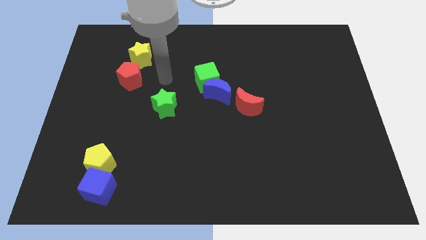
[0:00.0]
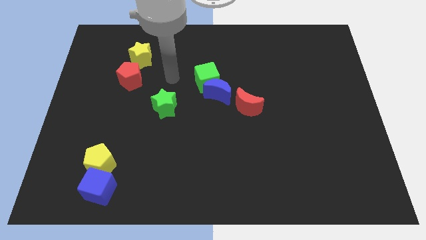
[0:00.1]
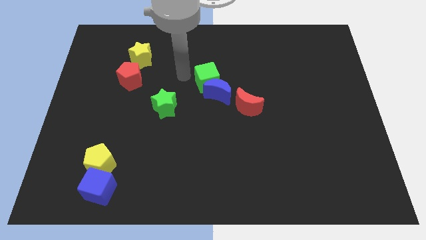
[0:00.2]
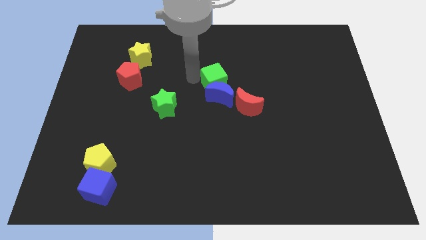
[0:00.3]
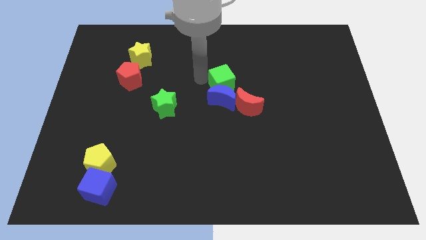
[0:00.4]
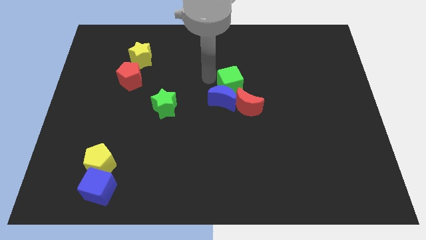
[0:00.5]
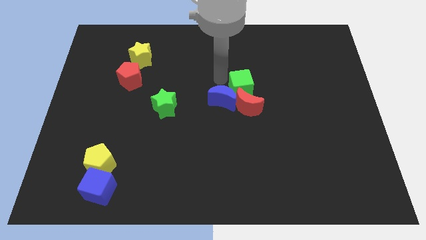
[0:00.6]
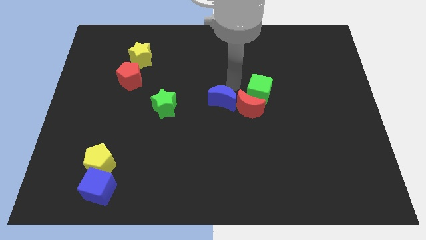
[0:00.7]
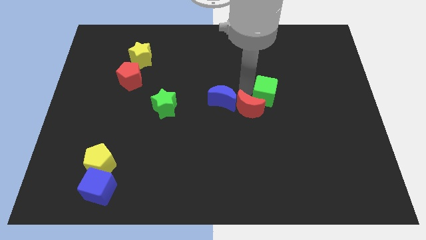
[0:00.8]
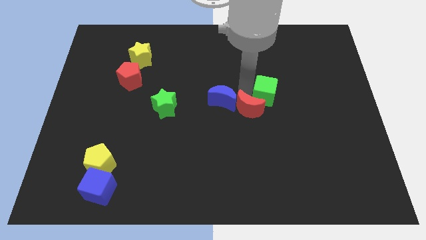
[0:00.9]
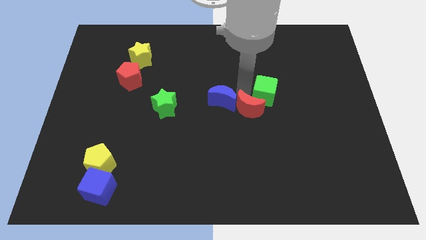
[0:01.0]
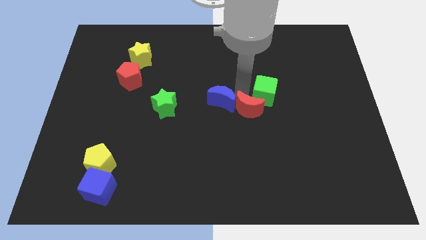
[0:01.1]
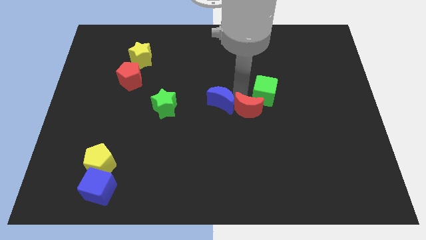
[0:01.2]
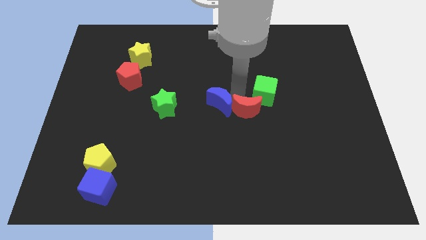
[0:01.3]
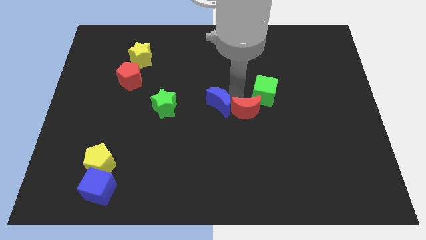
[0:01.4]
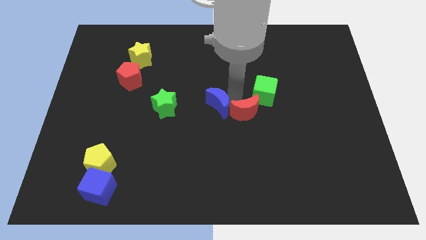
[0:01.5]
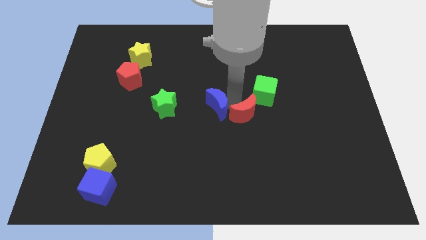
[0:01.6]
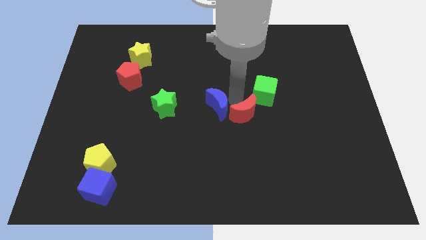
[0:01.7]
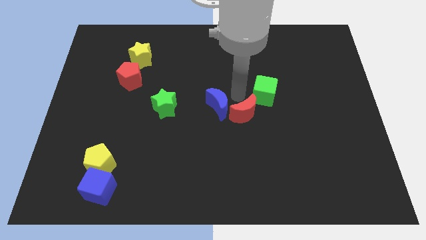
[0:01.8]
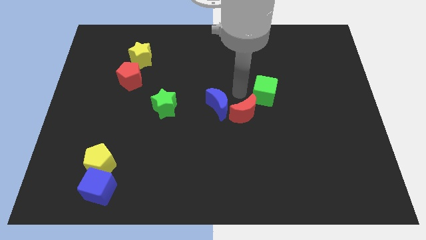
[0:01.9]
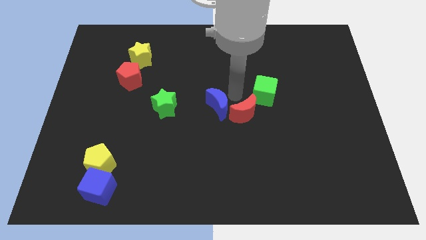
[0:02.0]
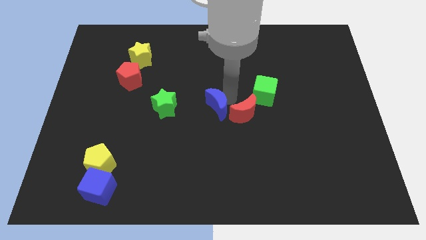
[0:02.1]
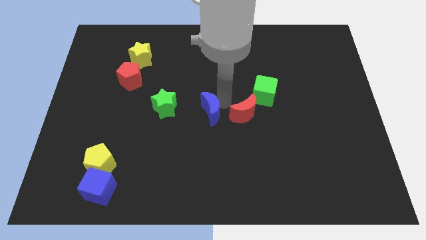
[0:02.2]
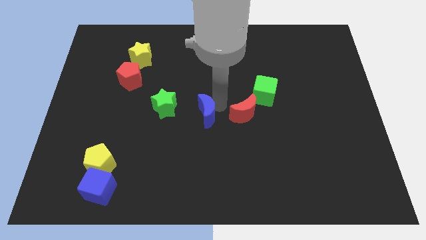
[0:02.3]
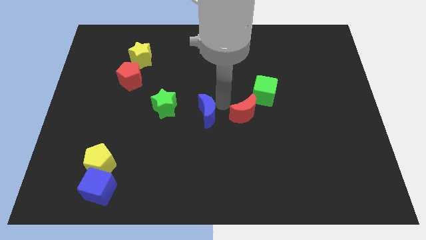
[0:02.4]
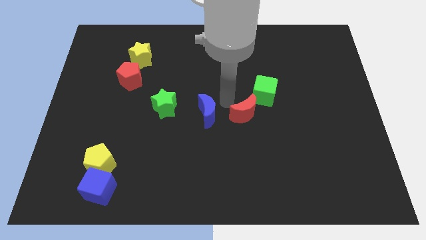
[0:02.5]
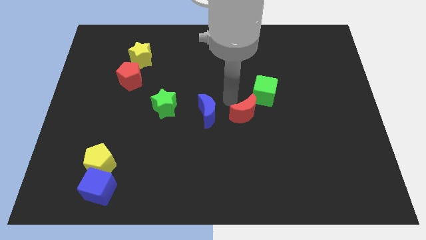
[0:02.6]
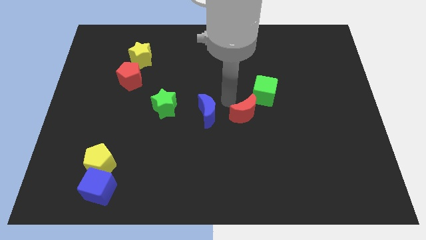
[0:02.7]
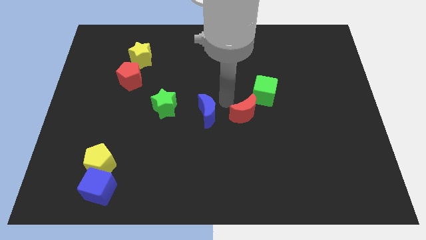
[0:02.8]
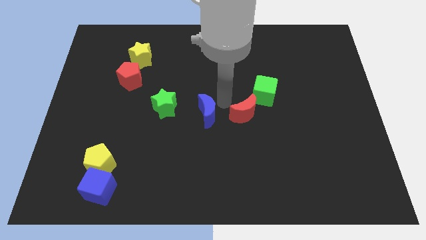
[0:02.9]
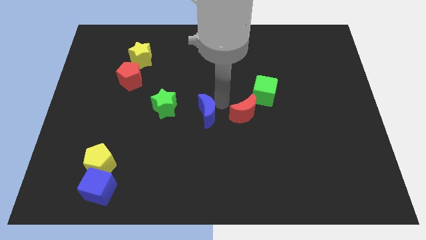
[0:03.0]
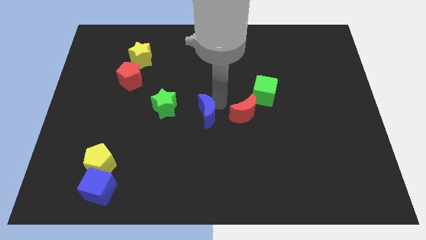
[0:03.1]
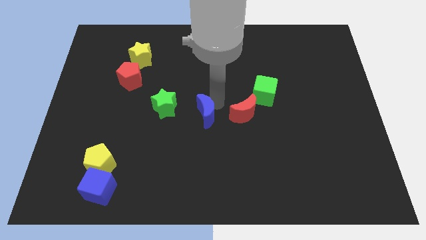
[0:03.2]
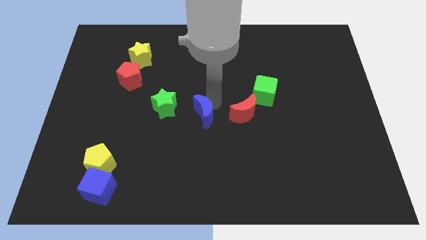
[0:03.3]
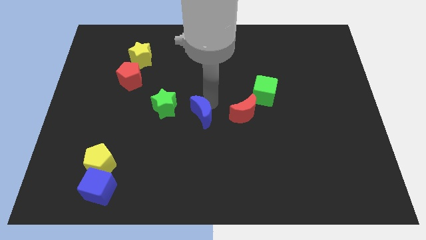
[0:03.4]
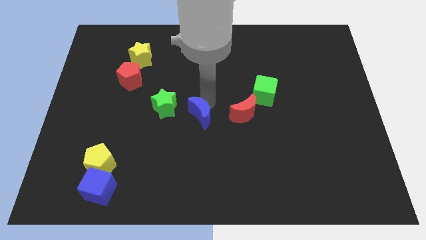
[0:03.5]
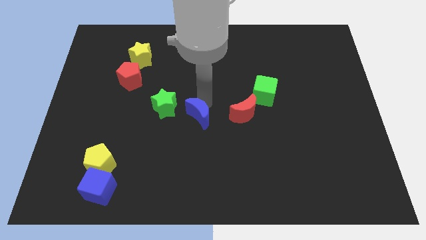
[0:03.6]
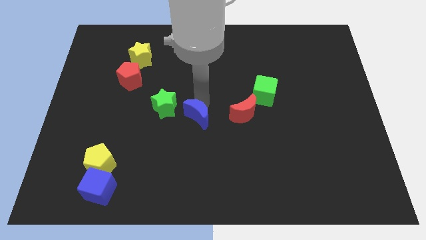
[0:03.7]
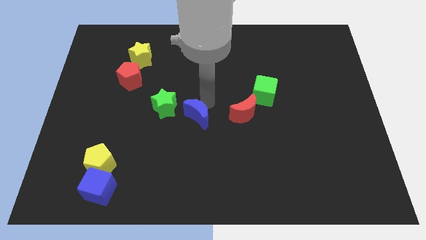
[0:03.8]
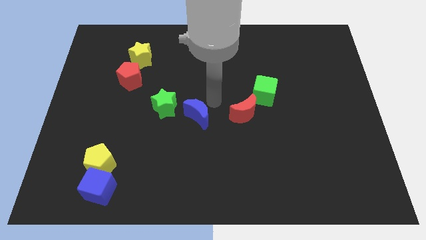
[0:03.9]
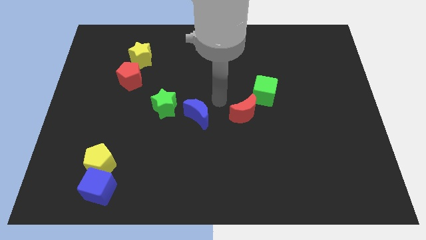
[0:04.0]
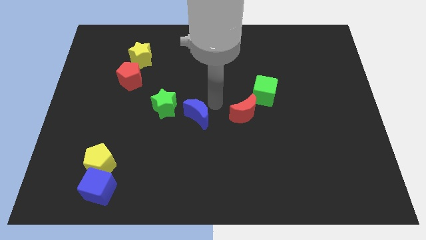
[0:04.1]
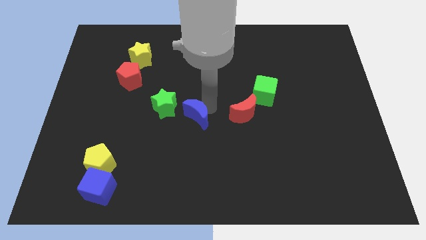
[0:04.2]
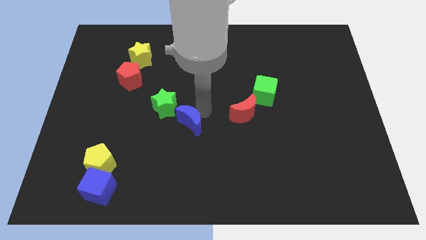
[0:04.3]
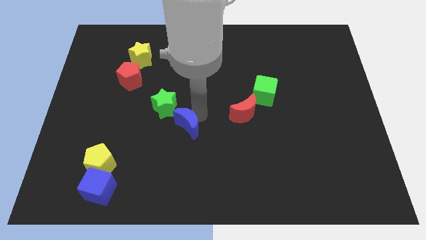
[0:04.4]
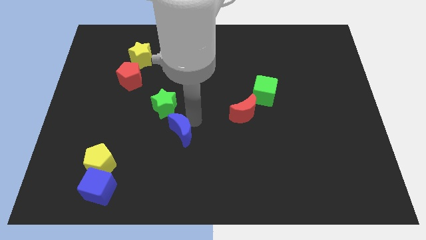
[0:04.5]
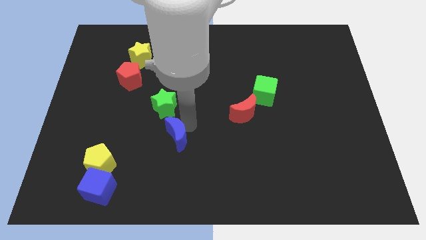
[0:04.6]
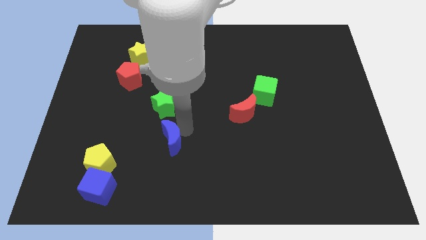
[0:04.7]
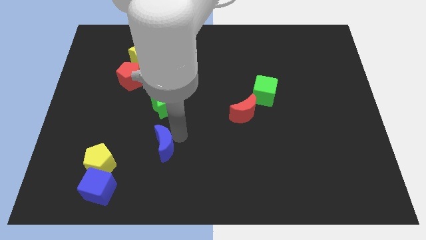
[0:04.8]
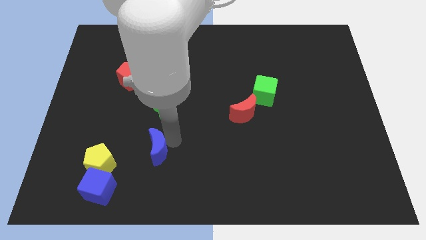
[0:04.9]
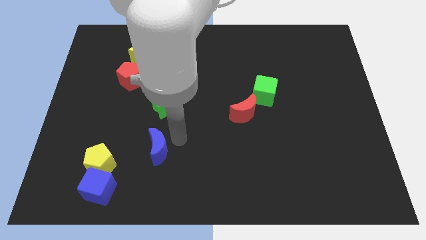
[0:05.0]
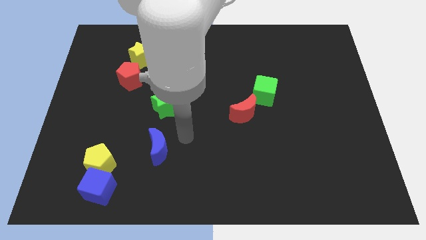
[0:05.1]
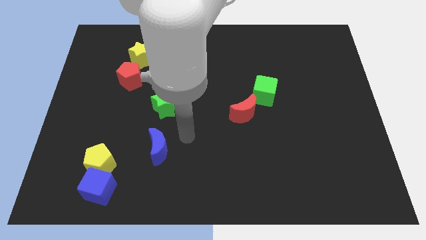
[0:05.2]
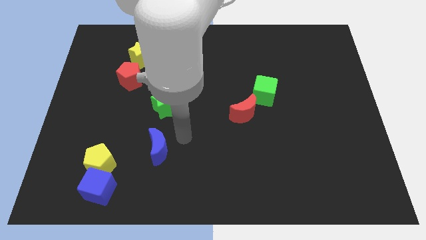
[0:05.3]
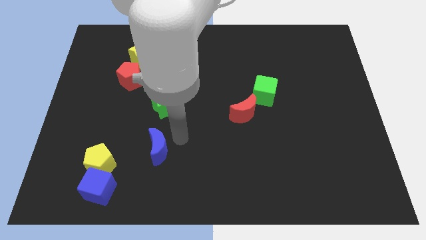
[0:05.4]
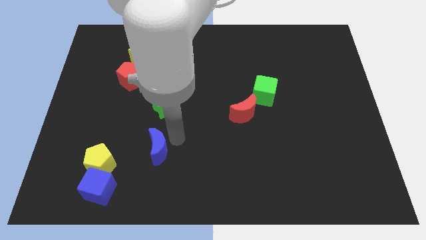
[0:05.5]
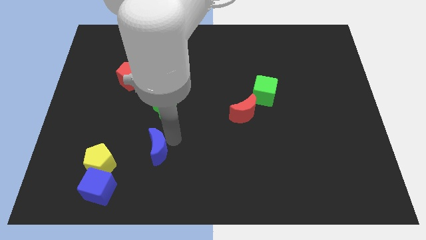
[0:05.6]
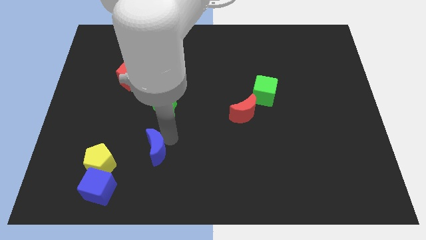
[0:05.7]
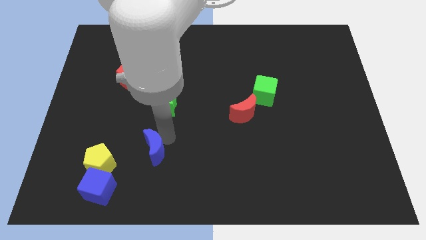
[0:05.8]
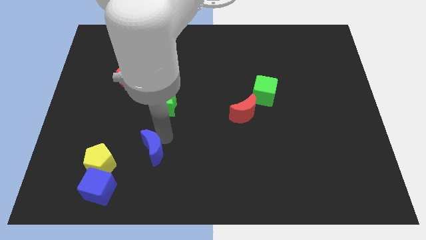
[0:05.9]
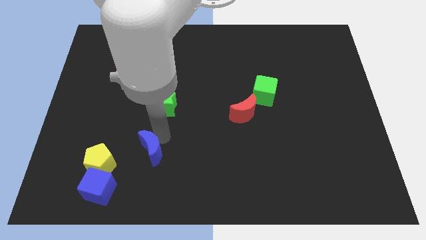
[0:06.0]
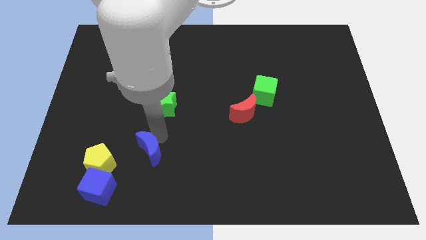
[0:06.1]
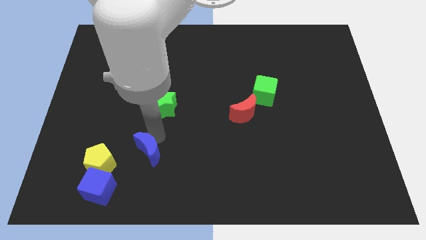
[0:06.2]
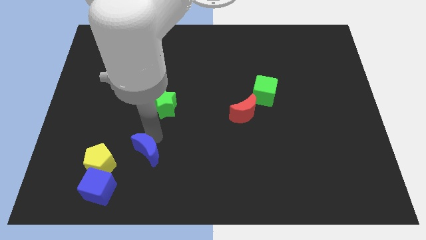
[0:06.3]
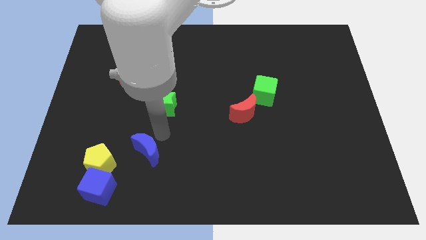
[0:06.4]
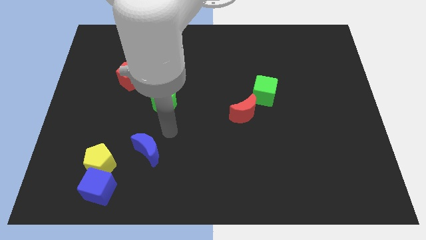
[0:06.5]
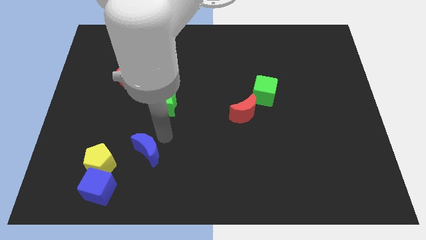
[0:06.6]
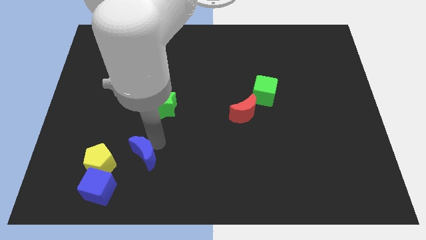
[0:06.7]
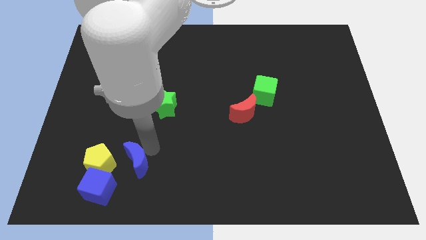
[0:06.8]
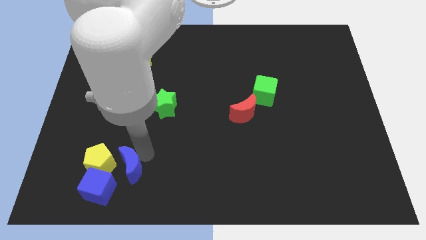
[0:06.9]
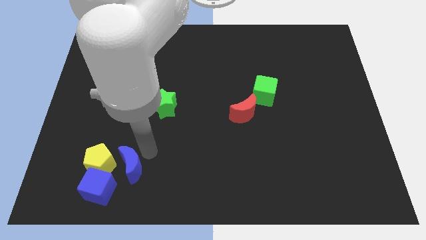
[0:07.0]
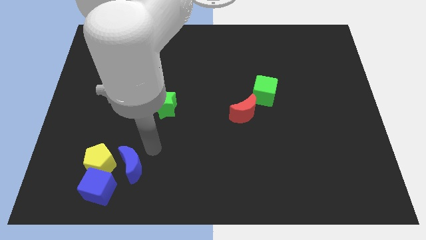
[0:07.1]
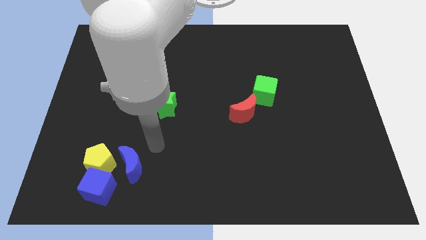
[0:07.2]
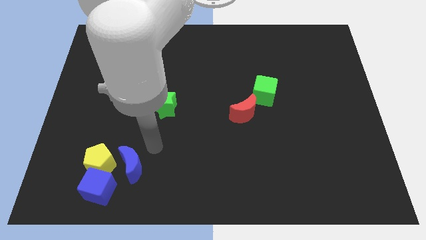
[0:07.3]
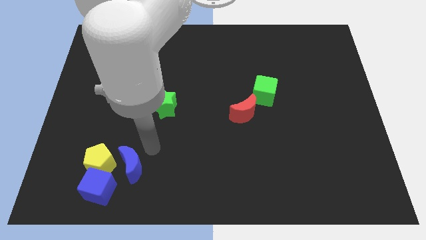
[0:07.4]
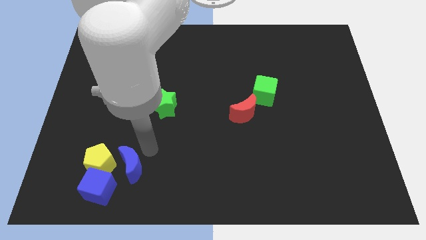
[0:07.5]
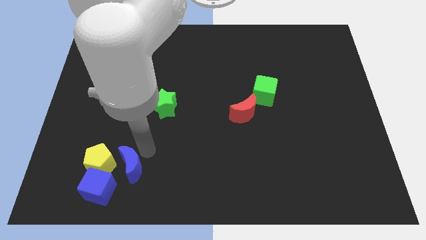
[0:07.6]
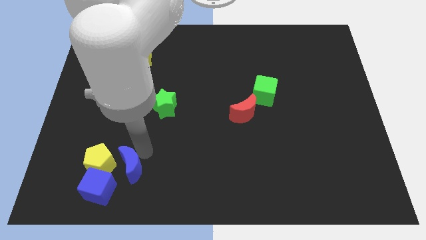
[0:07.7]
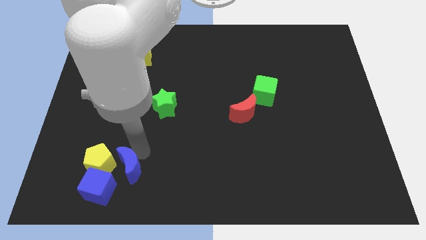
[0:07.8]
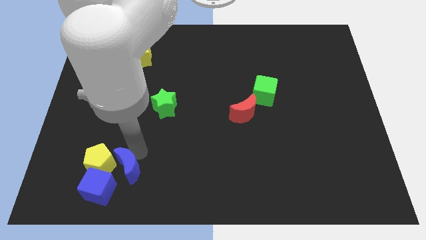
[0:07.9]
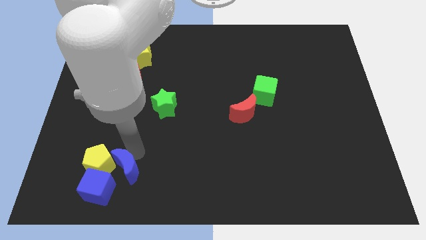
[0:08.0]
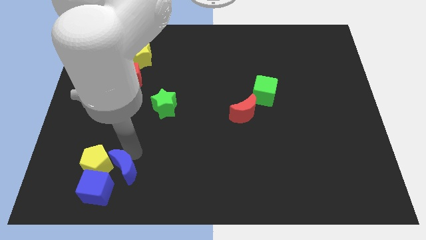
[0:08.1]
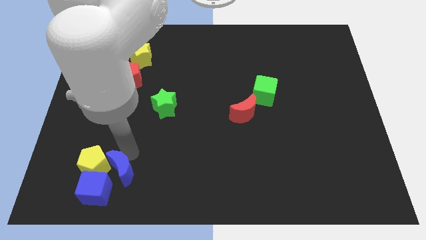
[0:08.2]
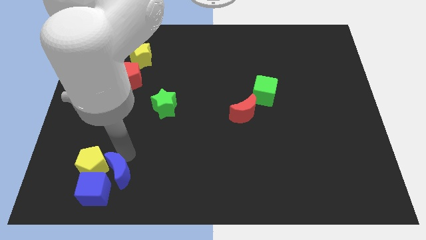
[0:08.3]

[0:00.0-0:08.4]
push the blue moon to the blue cube
